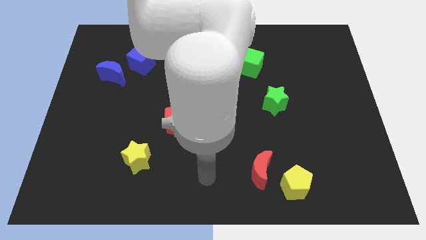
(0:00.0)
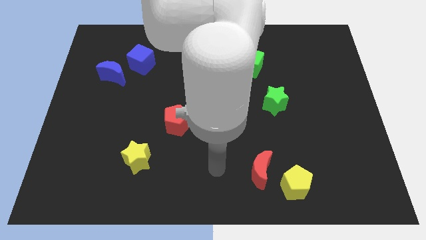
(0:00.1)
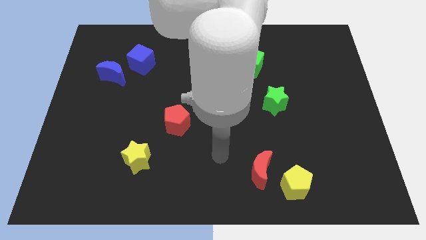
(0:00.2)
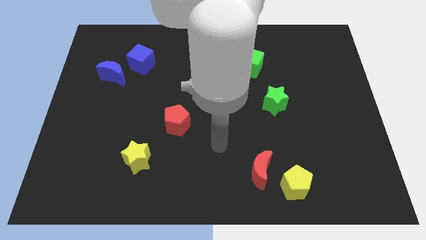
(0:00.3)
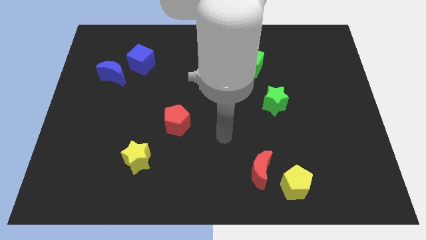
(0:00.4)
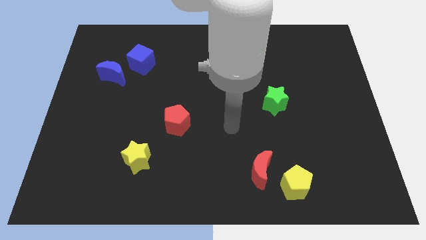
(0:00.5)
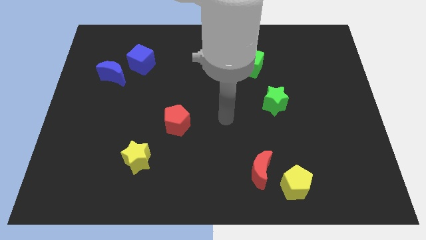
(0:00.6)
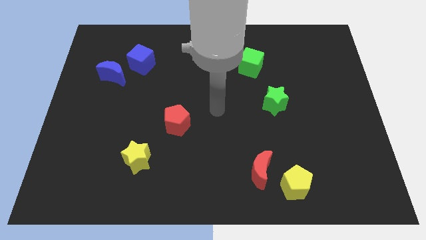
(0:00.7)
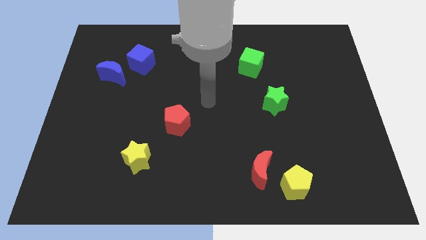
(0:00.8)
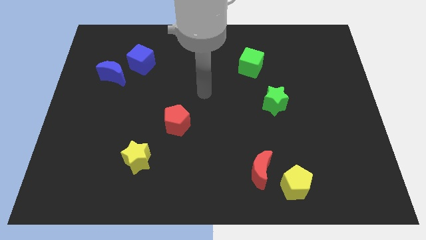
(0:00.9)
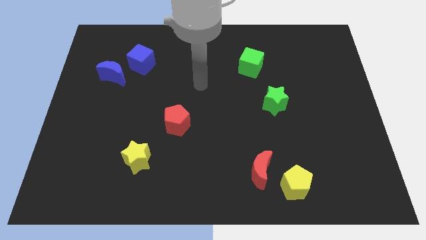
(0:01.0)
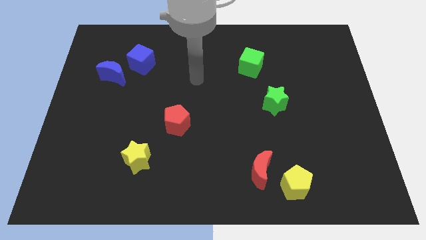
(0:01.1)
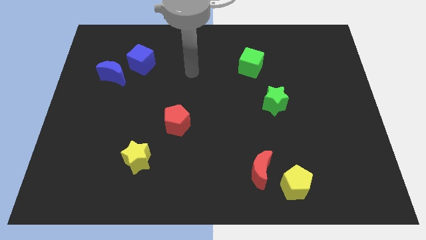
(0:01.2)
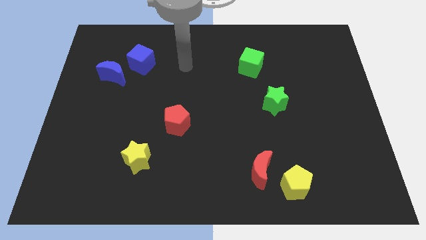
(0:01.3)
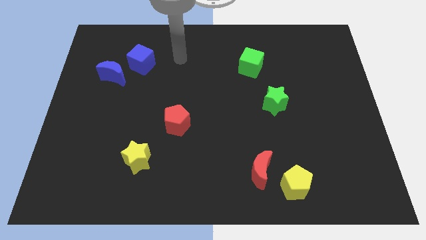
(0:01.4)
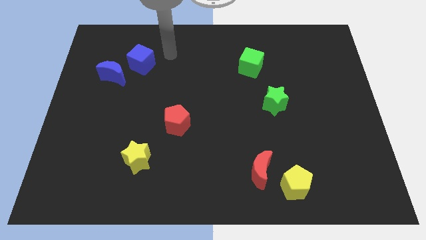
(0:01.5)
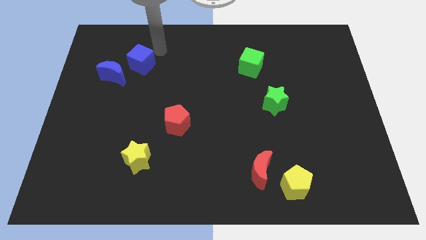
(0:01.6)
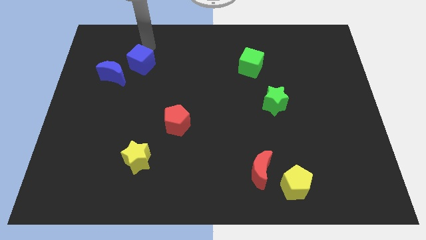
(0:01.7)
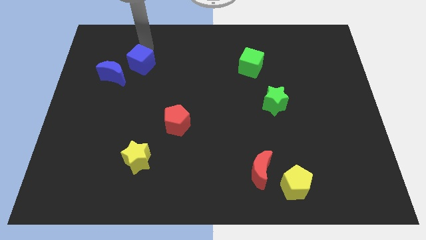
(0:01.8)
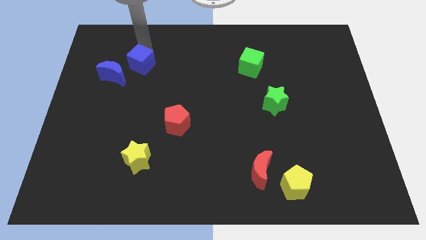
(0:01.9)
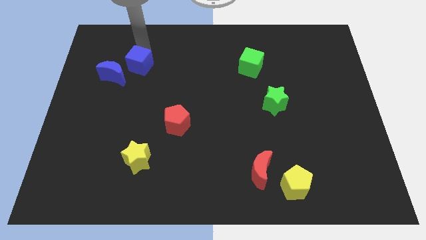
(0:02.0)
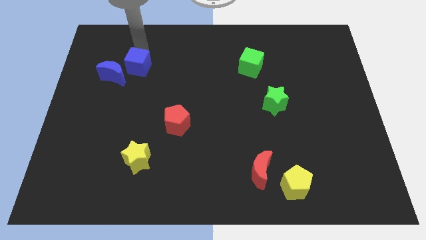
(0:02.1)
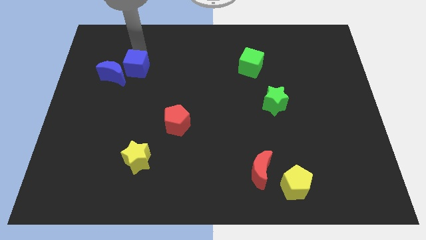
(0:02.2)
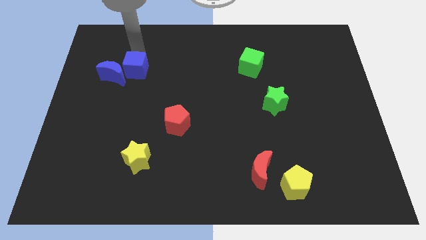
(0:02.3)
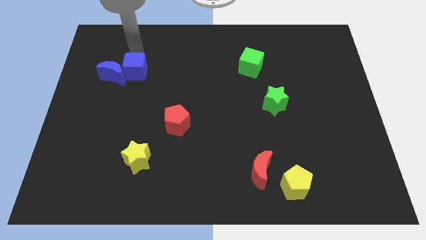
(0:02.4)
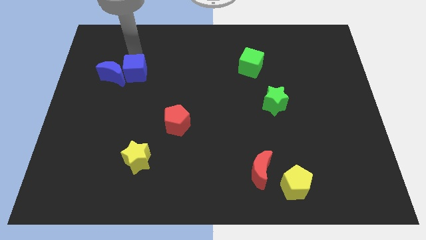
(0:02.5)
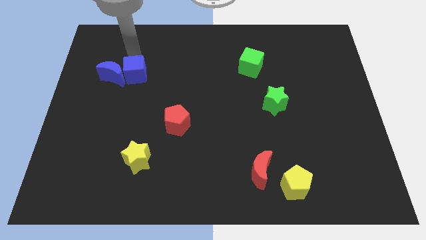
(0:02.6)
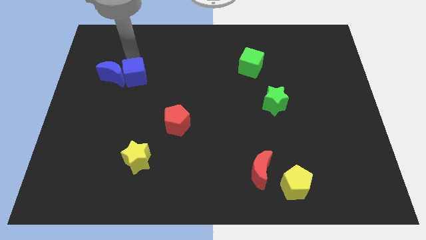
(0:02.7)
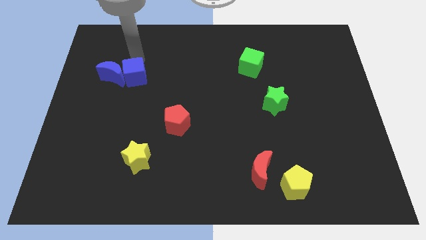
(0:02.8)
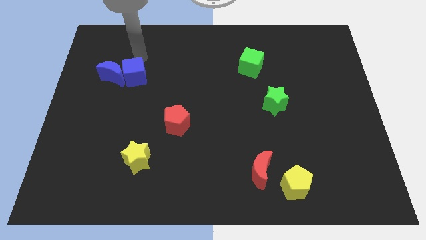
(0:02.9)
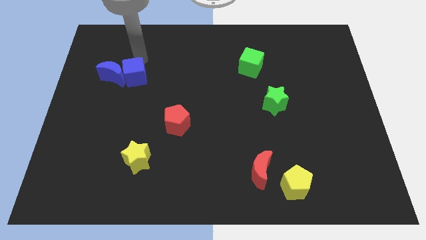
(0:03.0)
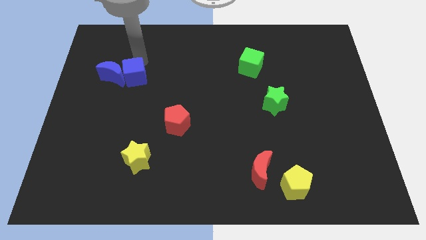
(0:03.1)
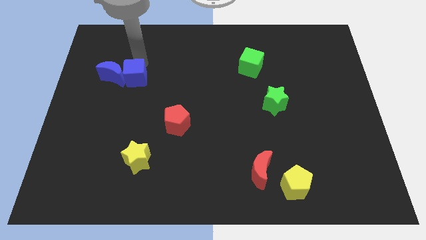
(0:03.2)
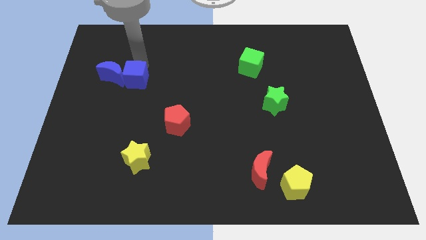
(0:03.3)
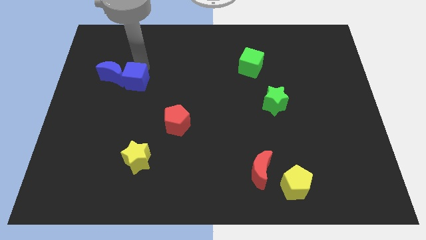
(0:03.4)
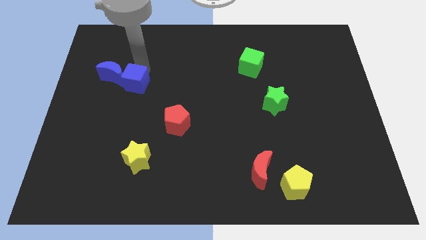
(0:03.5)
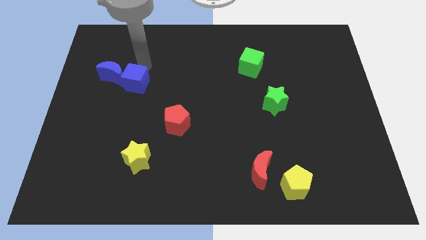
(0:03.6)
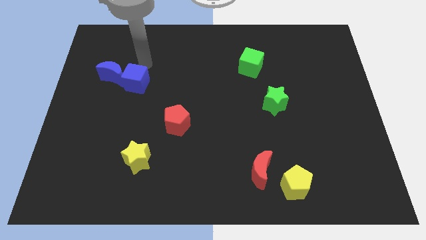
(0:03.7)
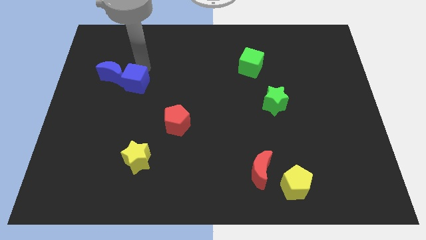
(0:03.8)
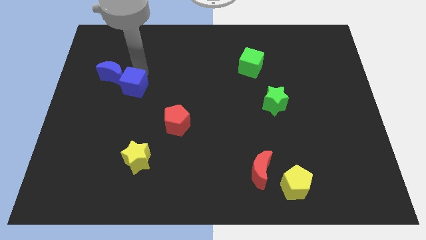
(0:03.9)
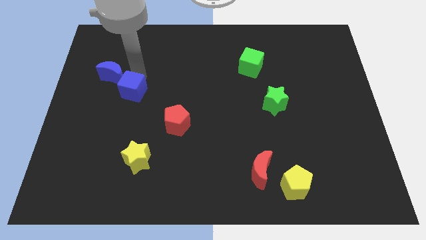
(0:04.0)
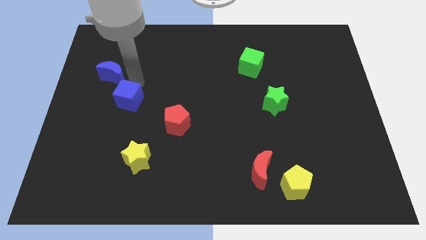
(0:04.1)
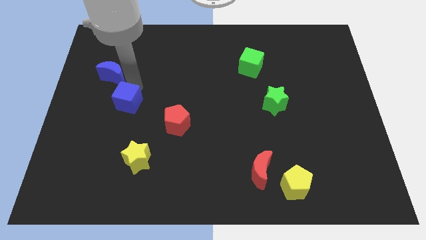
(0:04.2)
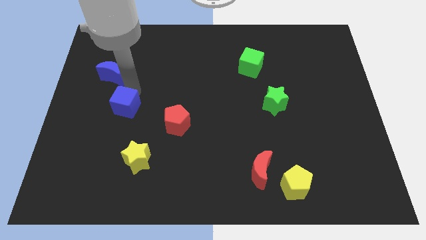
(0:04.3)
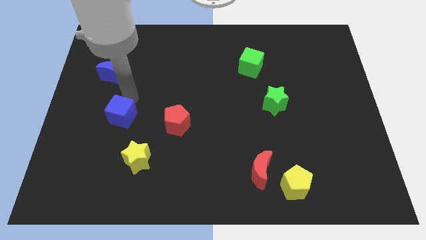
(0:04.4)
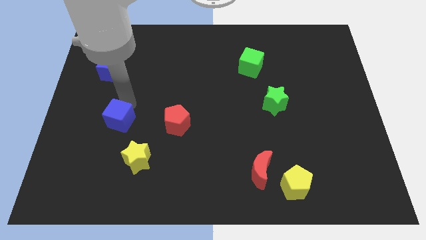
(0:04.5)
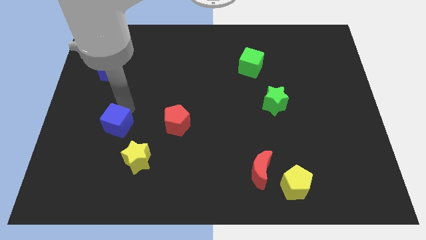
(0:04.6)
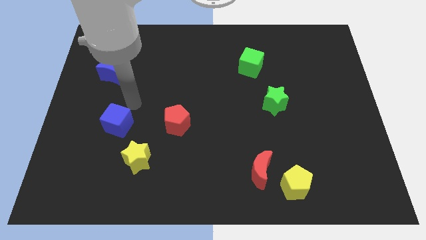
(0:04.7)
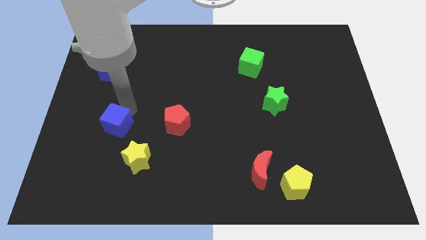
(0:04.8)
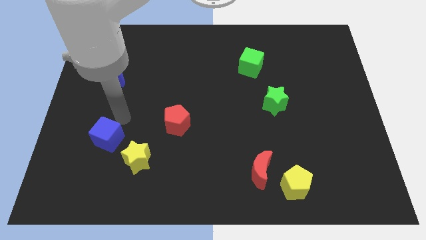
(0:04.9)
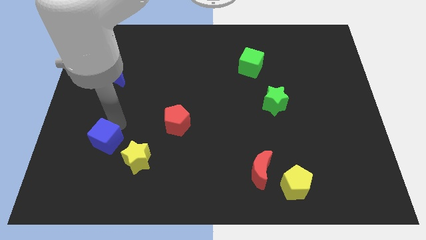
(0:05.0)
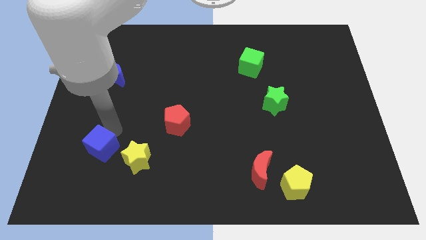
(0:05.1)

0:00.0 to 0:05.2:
push the blue cube to the left of the yellow star

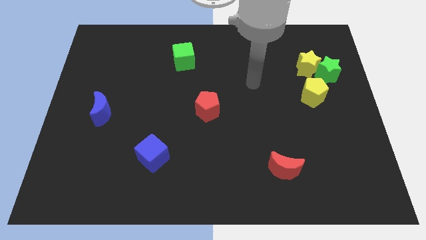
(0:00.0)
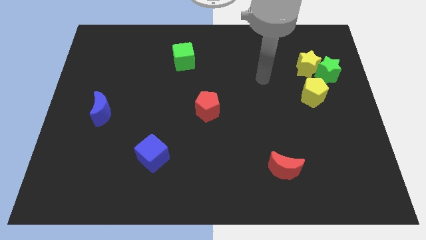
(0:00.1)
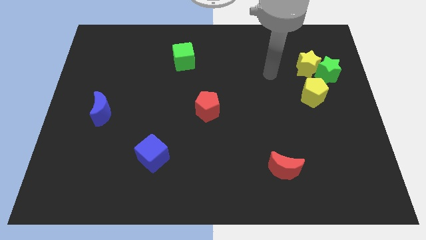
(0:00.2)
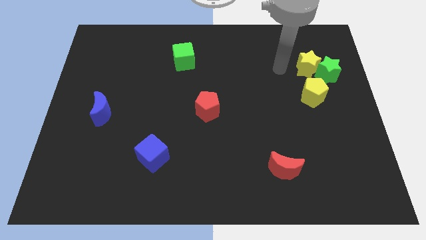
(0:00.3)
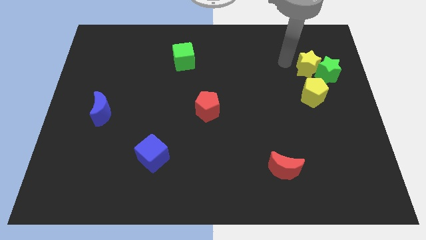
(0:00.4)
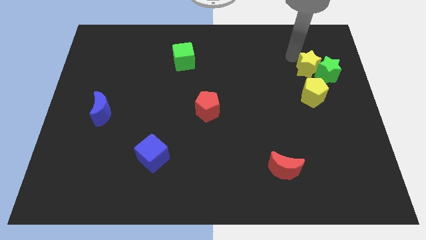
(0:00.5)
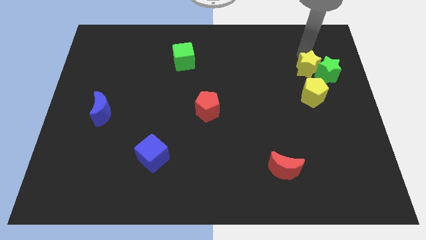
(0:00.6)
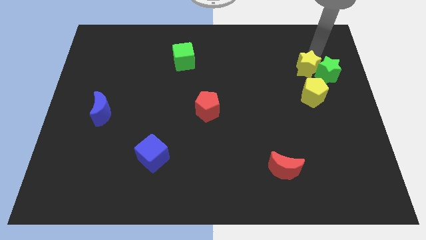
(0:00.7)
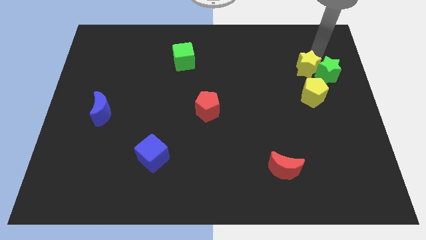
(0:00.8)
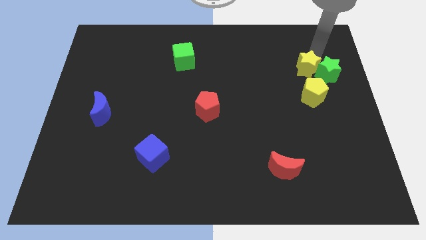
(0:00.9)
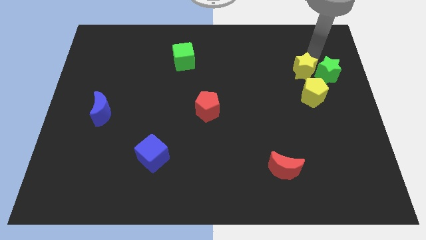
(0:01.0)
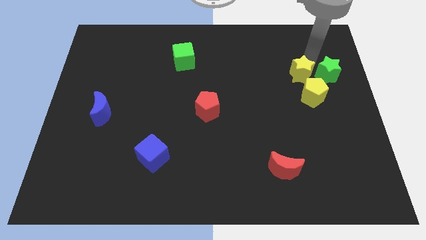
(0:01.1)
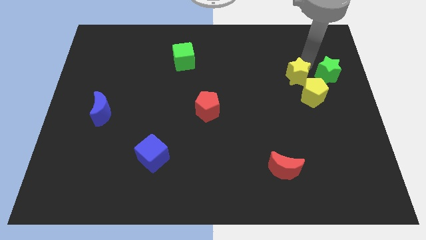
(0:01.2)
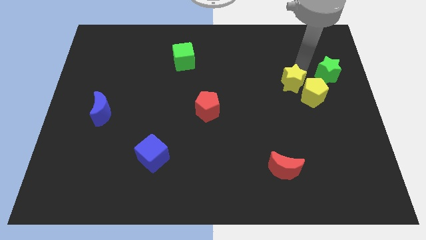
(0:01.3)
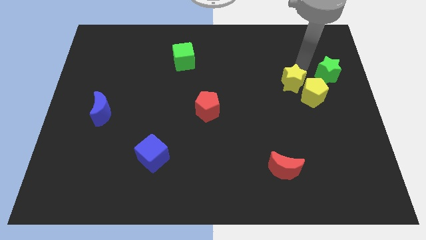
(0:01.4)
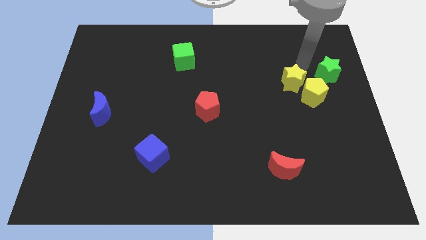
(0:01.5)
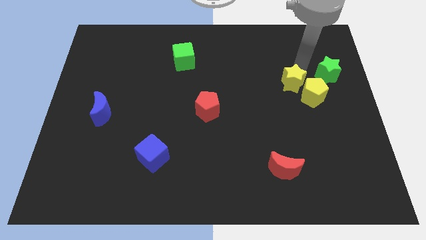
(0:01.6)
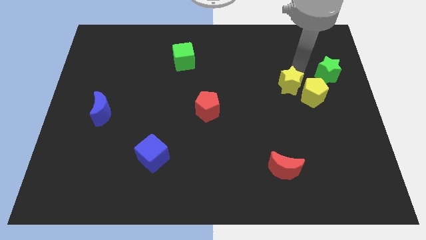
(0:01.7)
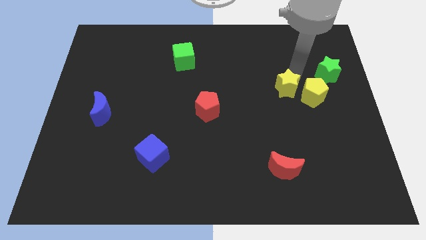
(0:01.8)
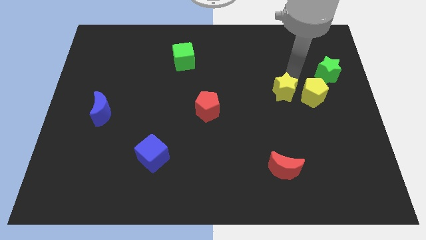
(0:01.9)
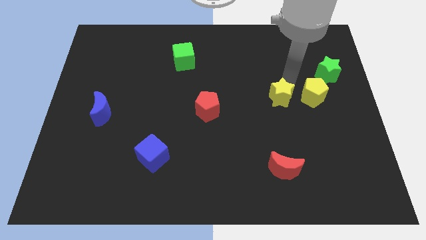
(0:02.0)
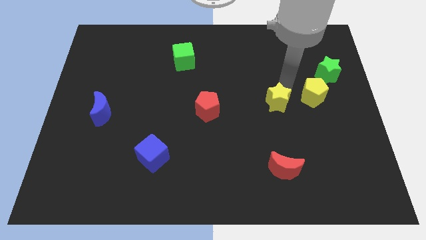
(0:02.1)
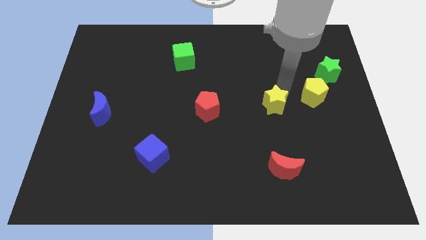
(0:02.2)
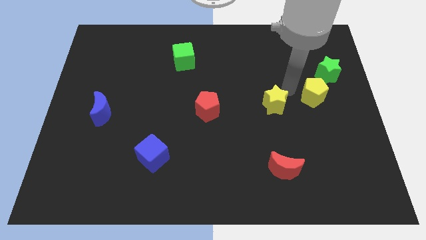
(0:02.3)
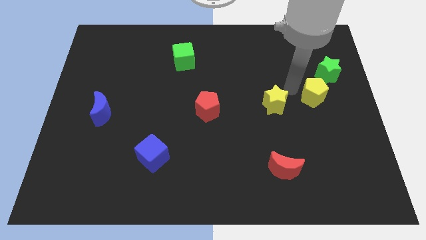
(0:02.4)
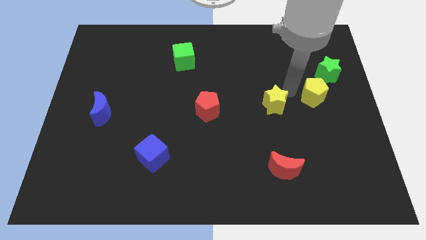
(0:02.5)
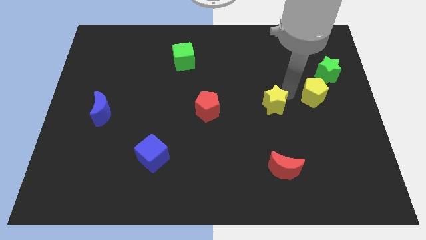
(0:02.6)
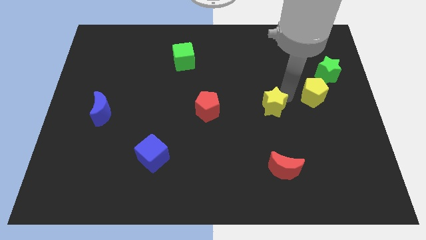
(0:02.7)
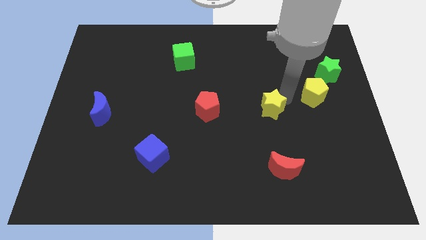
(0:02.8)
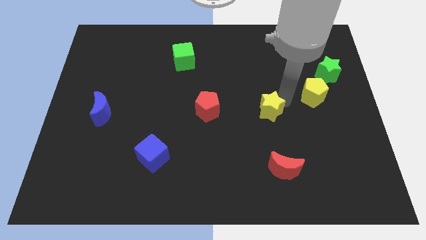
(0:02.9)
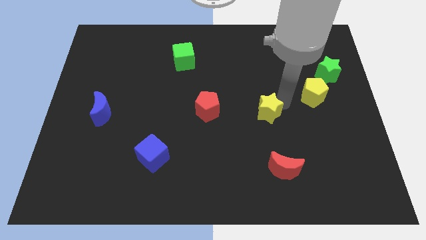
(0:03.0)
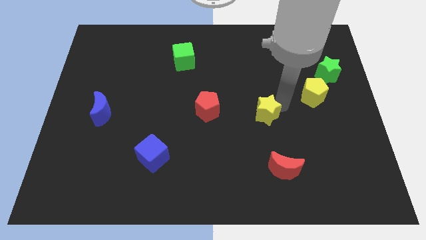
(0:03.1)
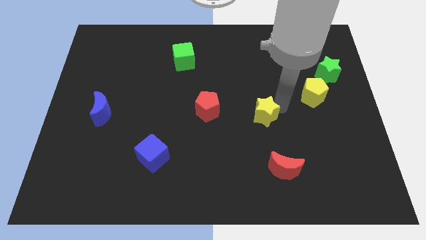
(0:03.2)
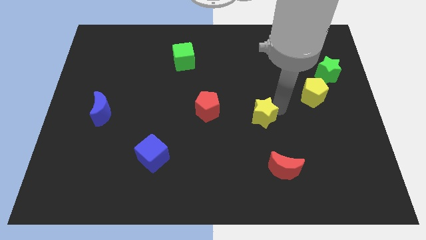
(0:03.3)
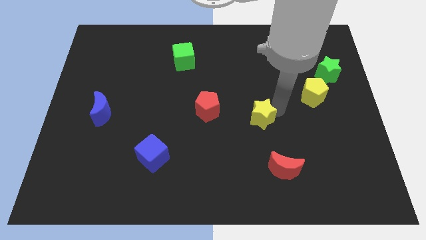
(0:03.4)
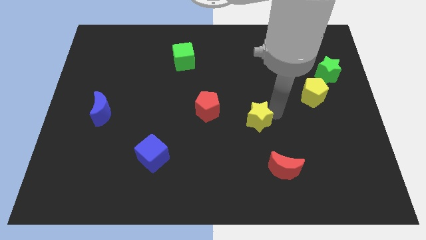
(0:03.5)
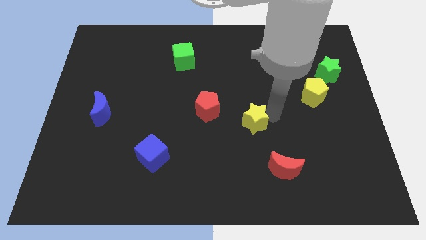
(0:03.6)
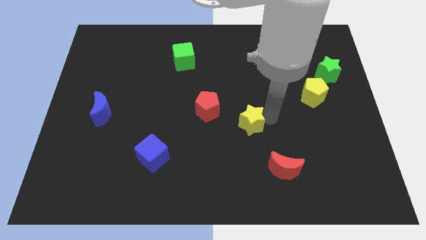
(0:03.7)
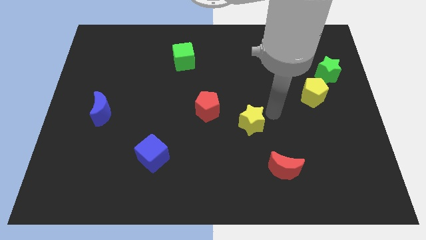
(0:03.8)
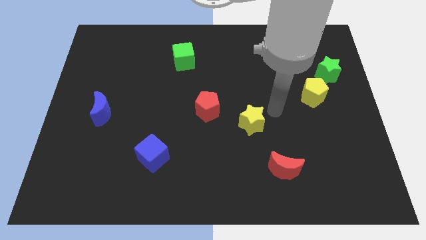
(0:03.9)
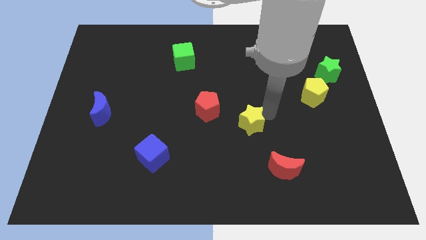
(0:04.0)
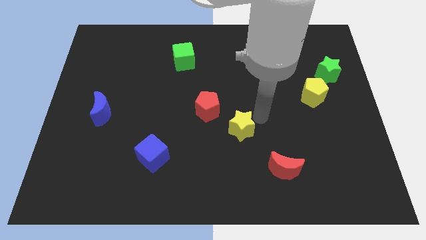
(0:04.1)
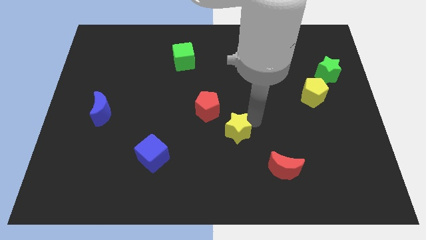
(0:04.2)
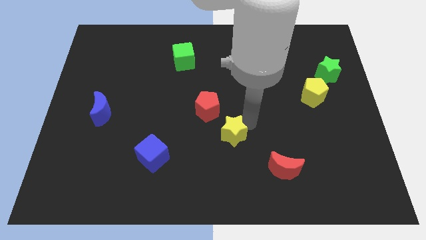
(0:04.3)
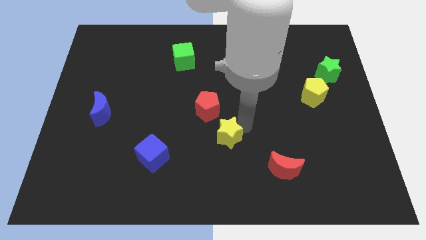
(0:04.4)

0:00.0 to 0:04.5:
move the yellow star to the bottom of the red pentagon
